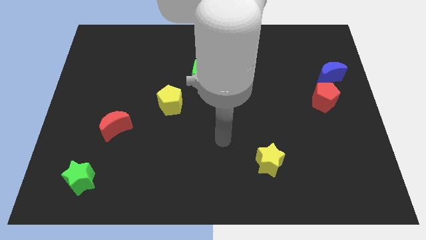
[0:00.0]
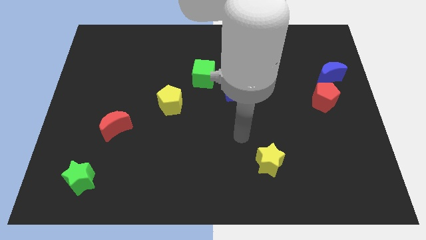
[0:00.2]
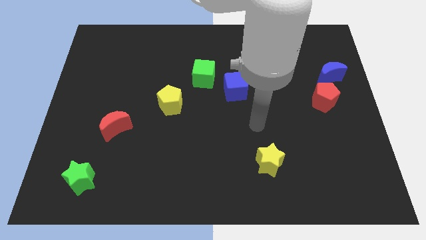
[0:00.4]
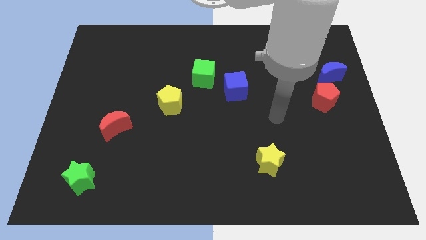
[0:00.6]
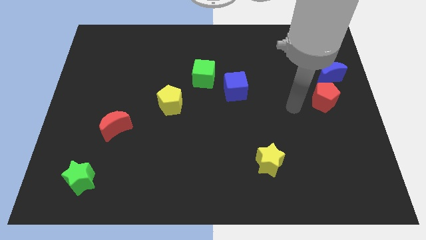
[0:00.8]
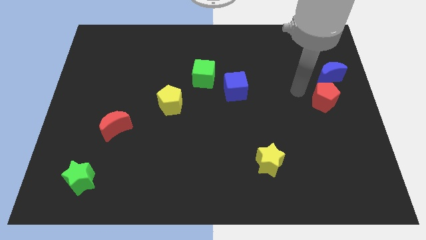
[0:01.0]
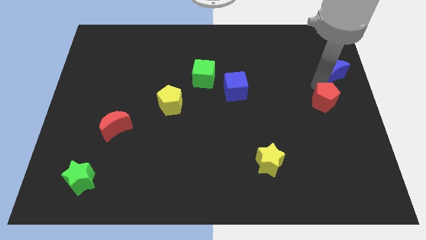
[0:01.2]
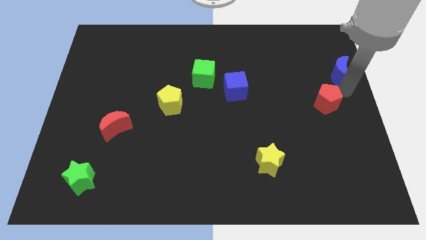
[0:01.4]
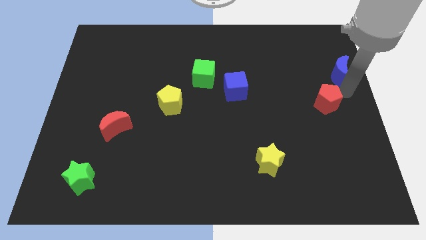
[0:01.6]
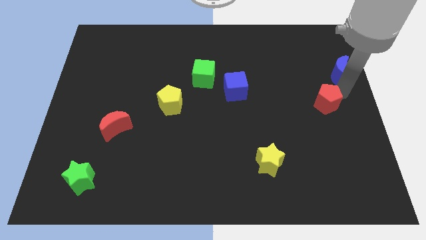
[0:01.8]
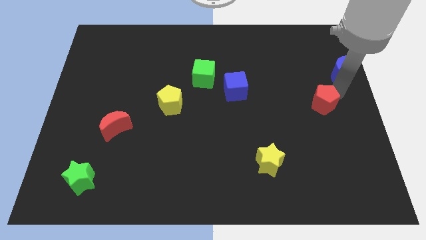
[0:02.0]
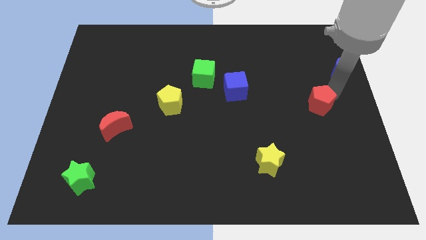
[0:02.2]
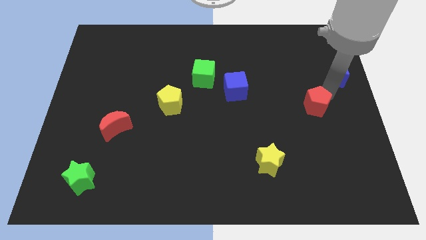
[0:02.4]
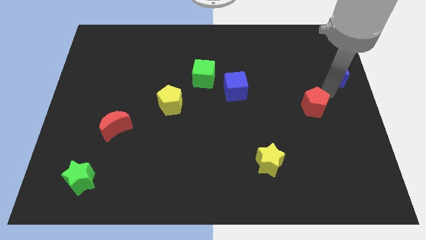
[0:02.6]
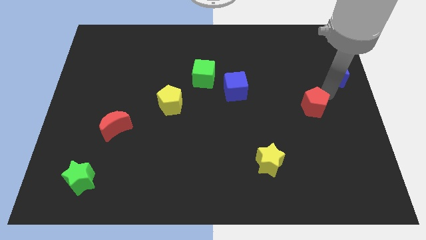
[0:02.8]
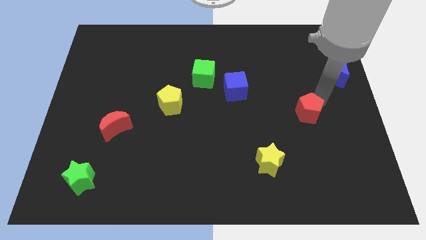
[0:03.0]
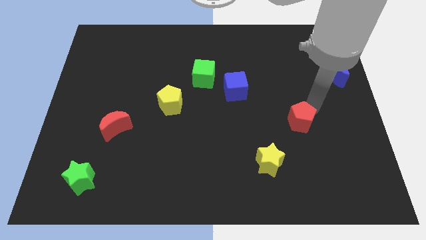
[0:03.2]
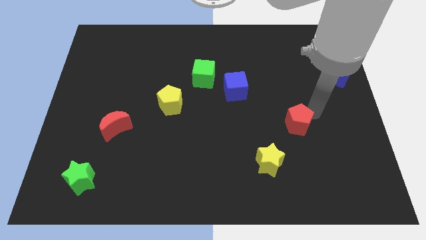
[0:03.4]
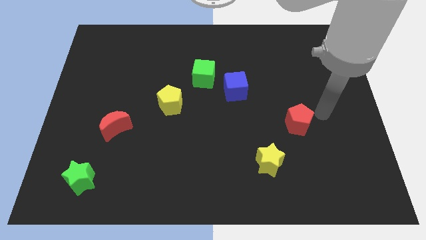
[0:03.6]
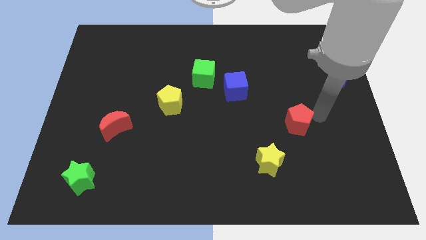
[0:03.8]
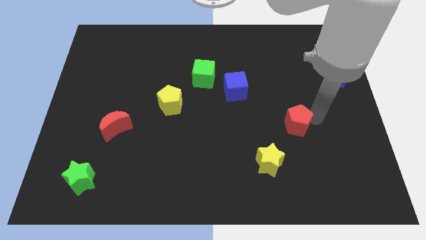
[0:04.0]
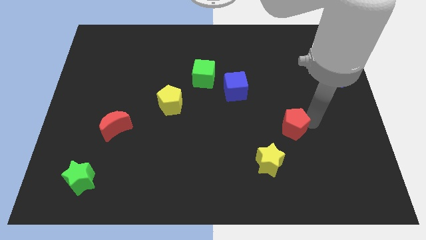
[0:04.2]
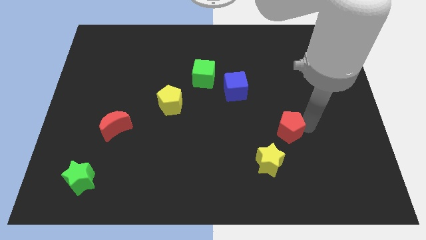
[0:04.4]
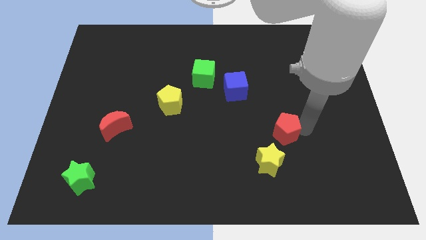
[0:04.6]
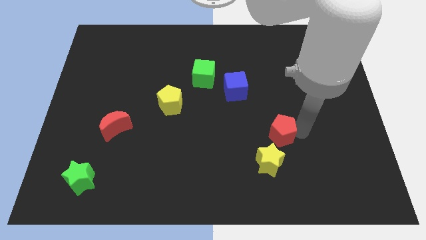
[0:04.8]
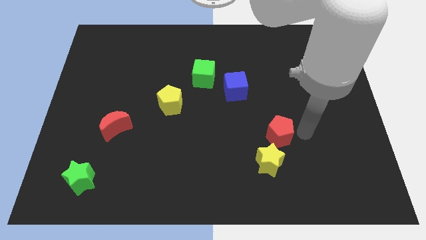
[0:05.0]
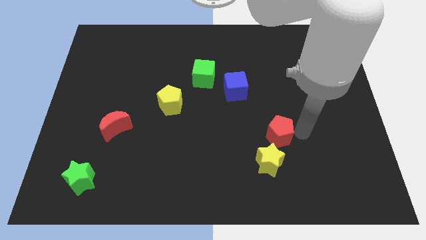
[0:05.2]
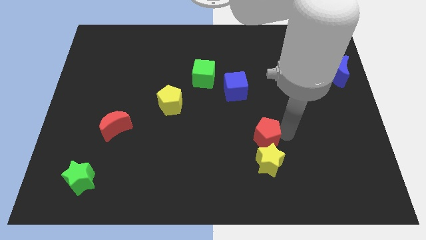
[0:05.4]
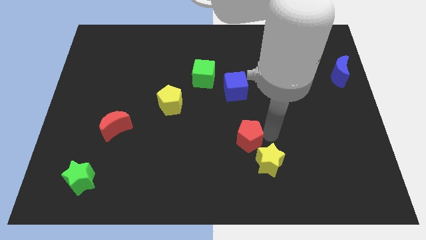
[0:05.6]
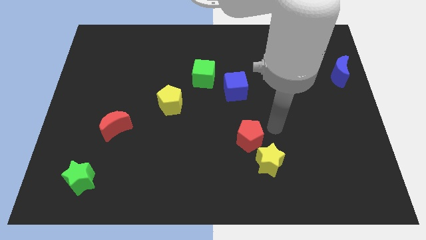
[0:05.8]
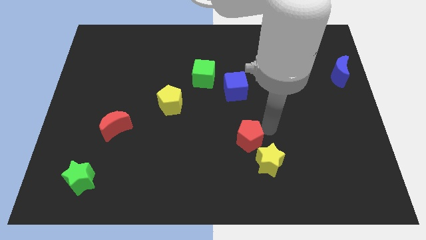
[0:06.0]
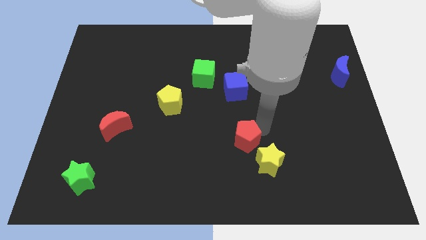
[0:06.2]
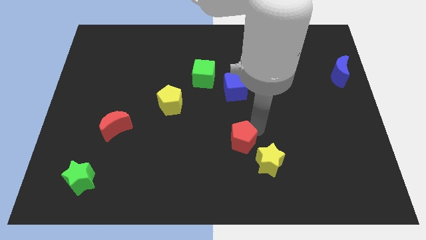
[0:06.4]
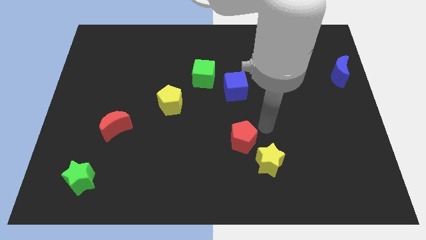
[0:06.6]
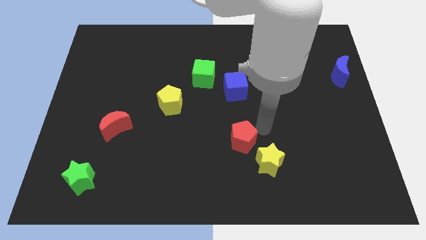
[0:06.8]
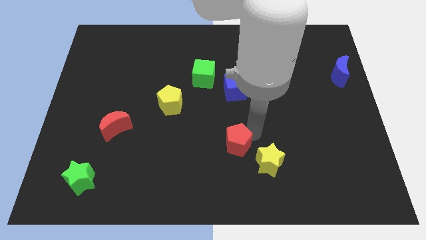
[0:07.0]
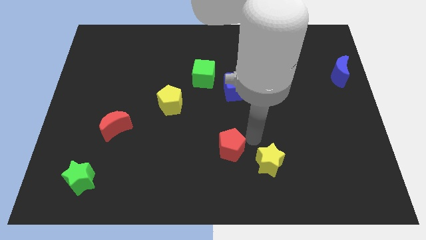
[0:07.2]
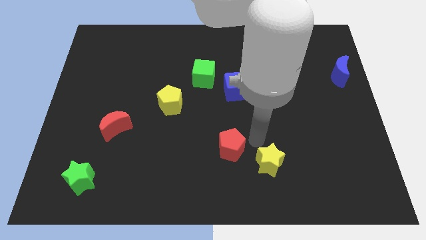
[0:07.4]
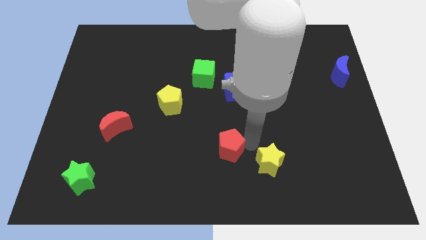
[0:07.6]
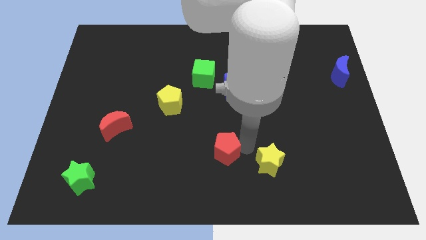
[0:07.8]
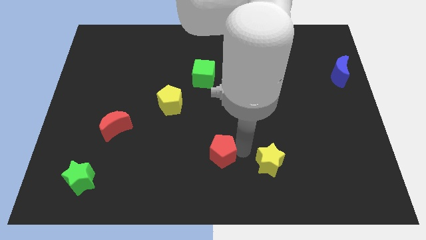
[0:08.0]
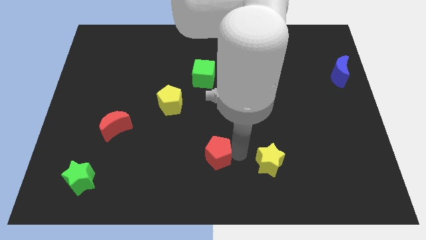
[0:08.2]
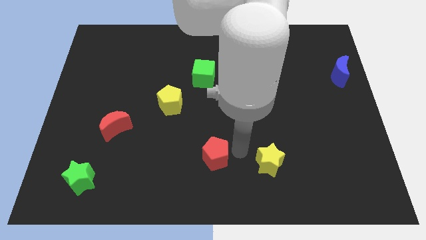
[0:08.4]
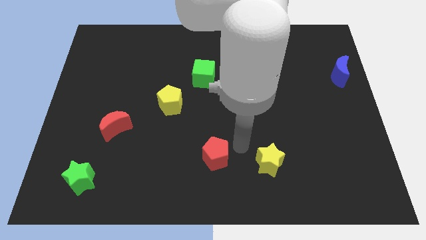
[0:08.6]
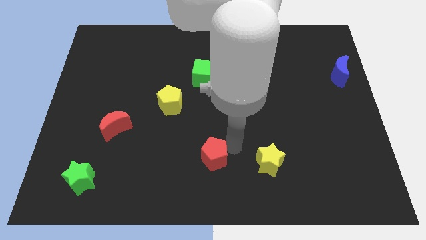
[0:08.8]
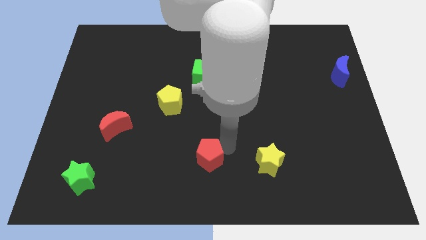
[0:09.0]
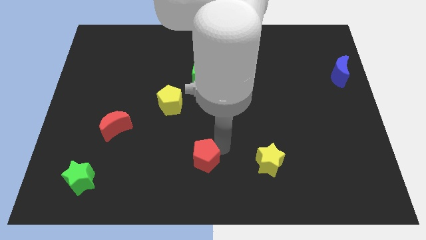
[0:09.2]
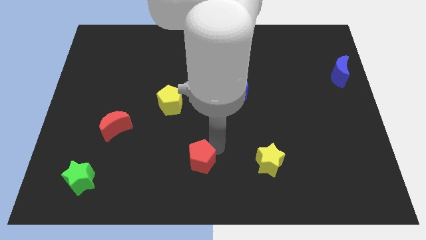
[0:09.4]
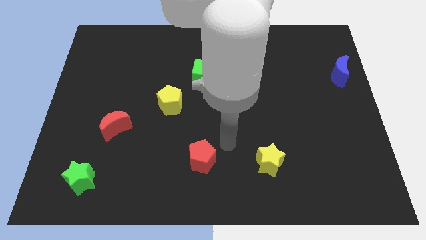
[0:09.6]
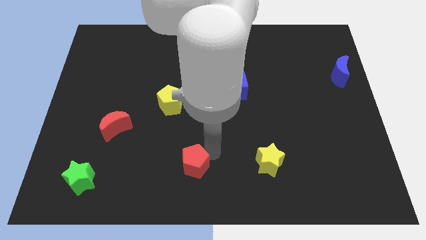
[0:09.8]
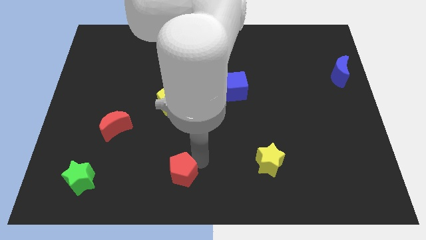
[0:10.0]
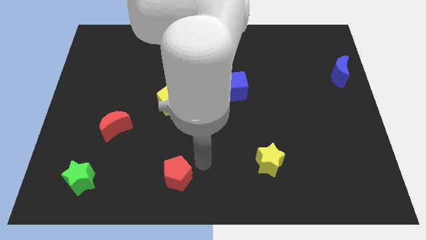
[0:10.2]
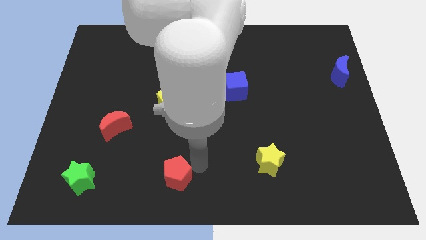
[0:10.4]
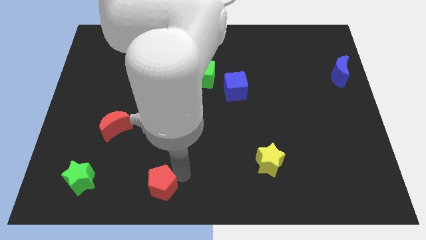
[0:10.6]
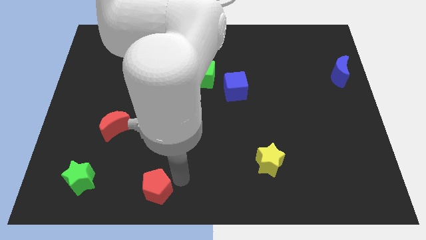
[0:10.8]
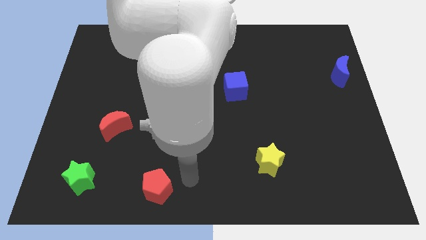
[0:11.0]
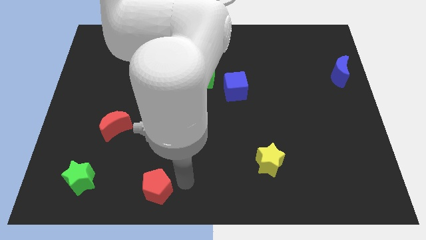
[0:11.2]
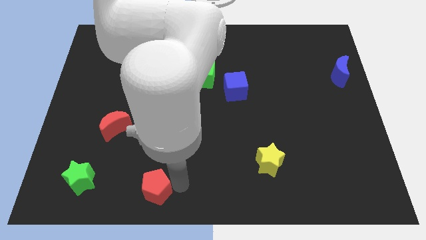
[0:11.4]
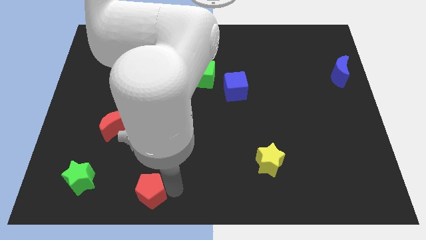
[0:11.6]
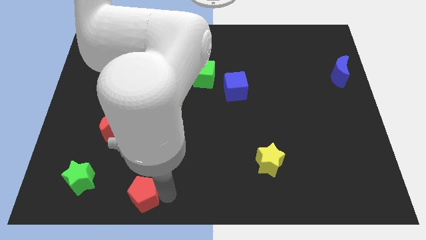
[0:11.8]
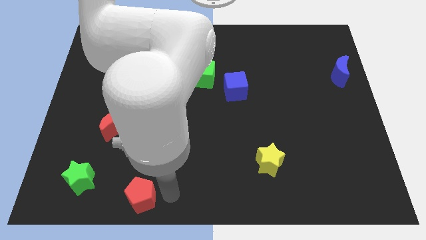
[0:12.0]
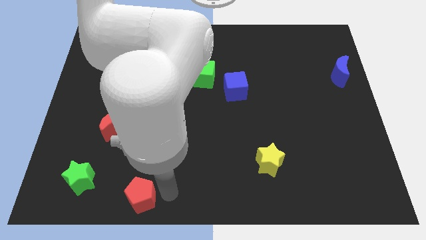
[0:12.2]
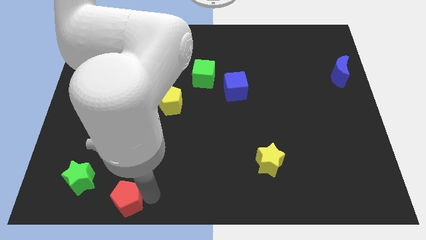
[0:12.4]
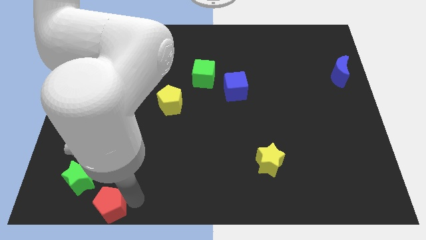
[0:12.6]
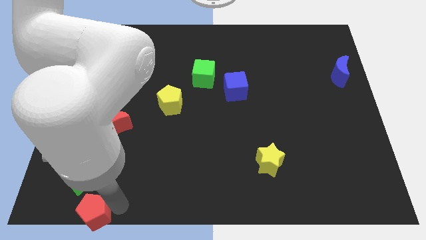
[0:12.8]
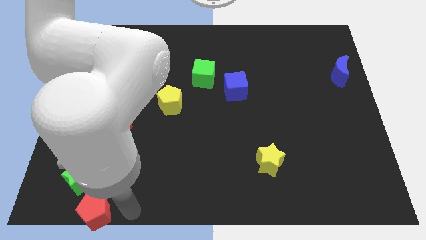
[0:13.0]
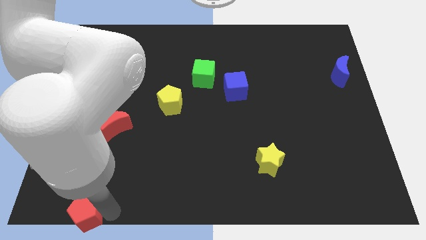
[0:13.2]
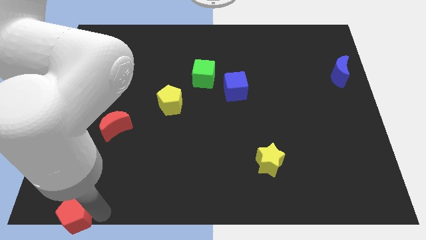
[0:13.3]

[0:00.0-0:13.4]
move the red pentagon to the lower left corner
